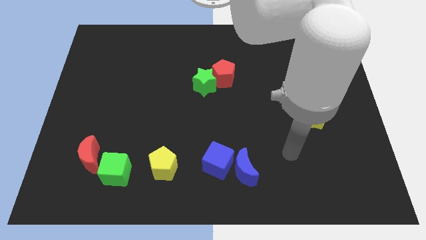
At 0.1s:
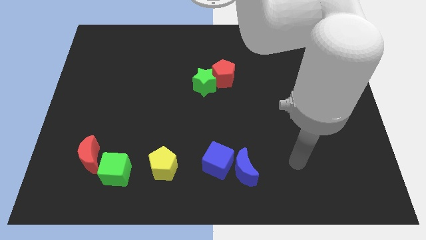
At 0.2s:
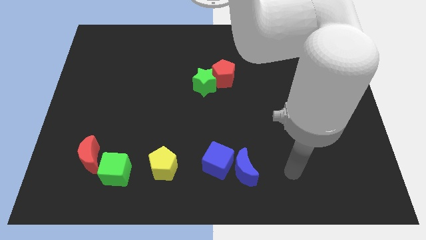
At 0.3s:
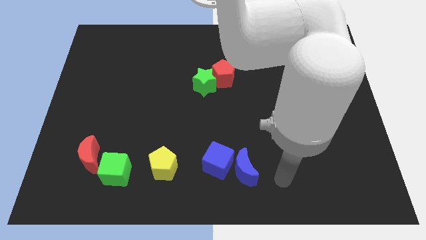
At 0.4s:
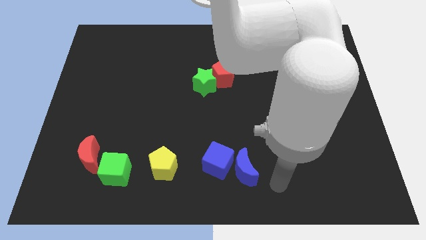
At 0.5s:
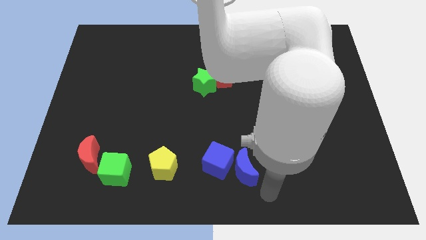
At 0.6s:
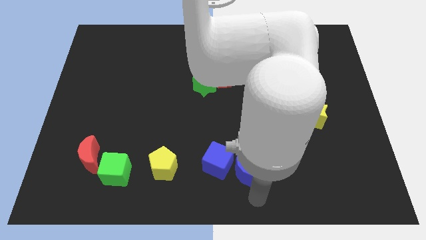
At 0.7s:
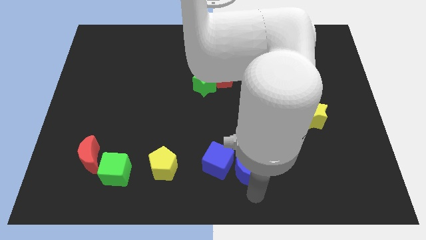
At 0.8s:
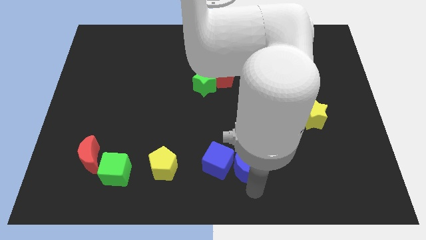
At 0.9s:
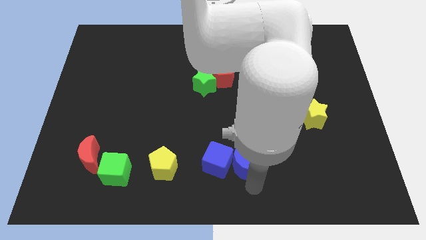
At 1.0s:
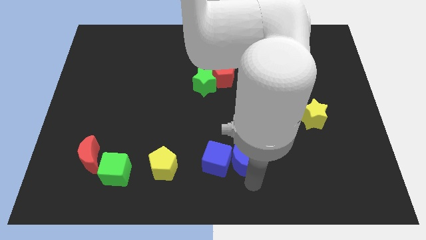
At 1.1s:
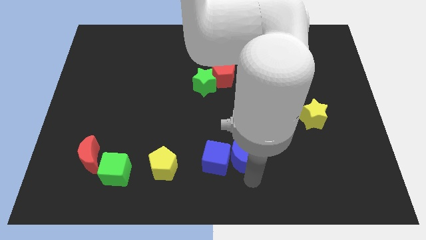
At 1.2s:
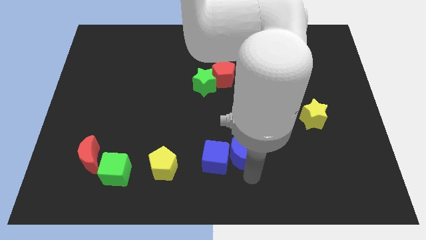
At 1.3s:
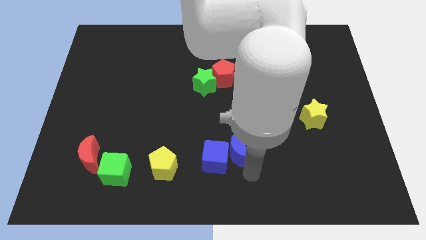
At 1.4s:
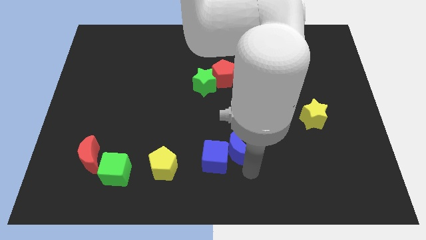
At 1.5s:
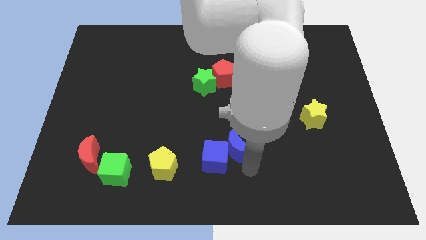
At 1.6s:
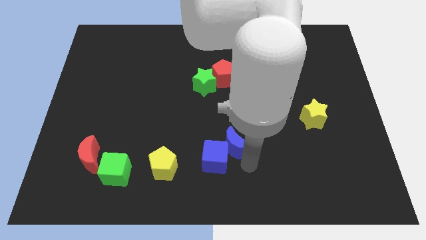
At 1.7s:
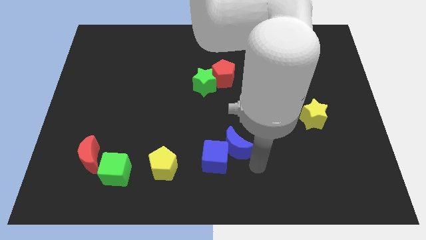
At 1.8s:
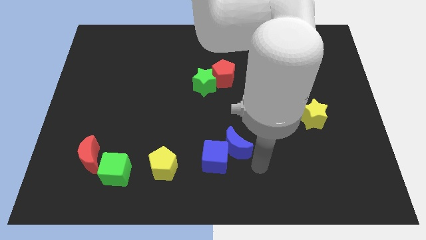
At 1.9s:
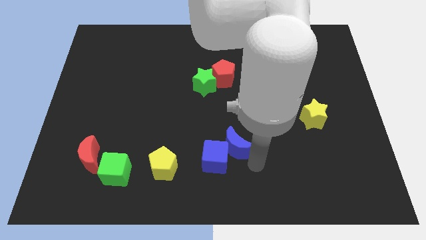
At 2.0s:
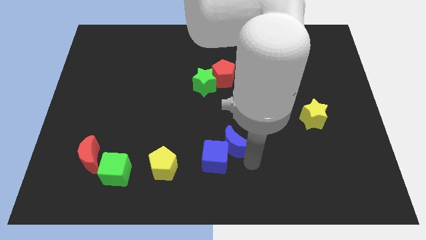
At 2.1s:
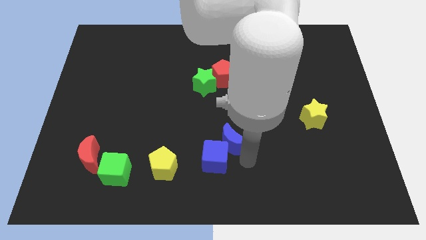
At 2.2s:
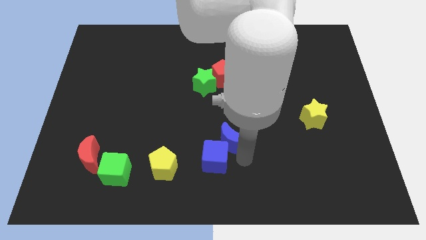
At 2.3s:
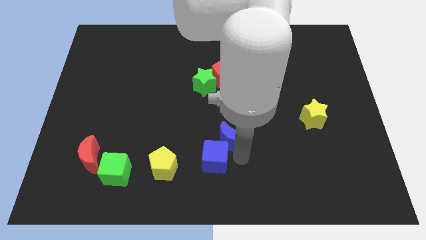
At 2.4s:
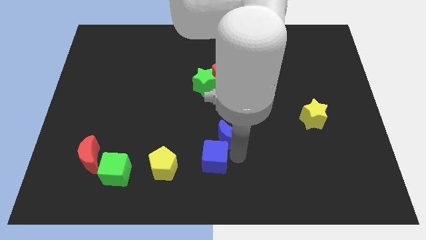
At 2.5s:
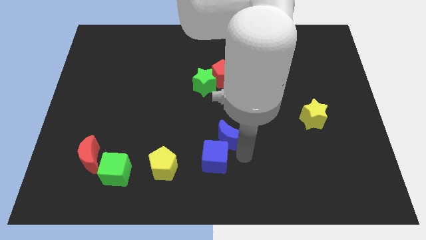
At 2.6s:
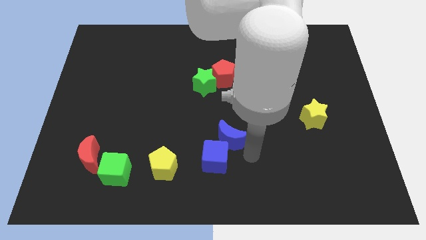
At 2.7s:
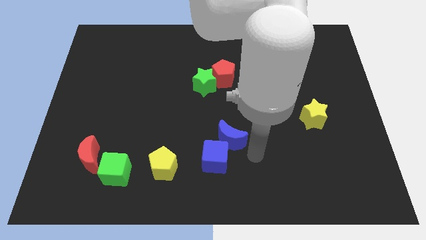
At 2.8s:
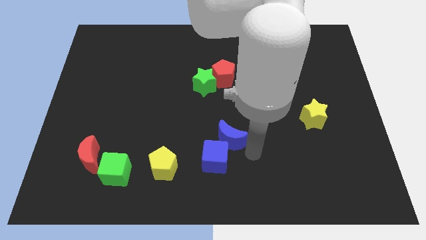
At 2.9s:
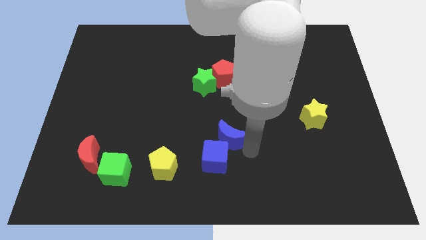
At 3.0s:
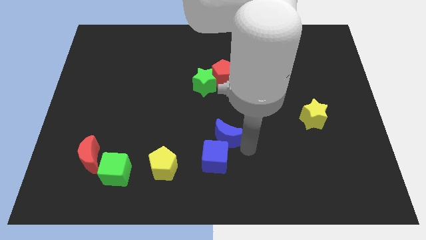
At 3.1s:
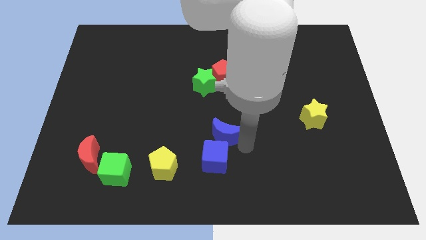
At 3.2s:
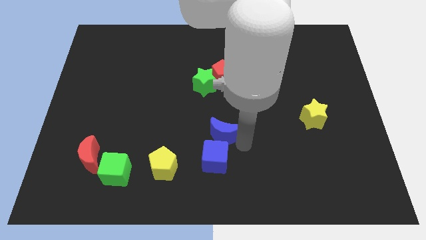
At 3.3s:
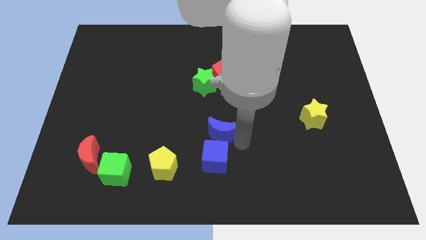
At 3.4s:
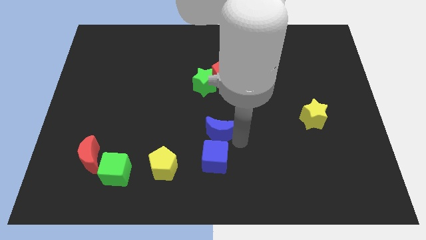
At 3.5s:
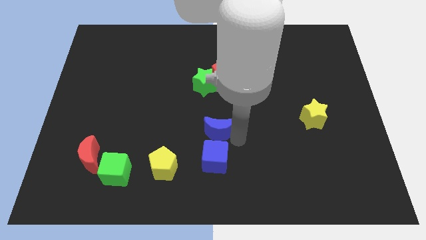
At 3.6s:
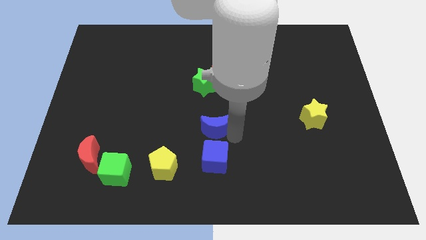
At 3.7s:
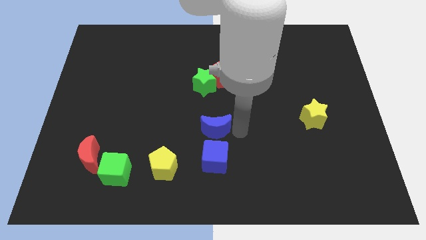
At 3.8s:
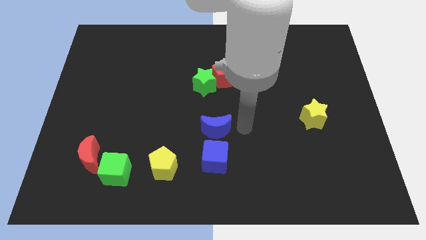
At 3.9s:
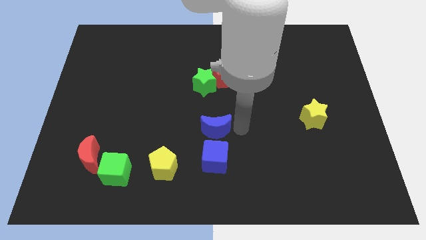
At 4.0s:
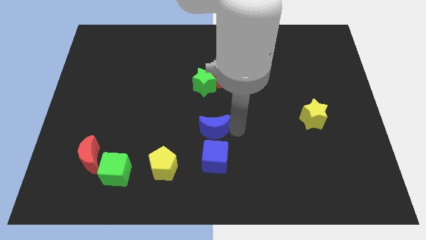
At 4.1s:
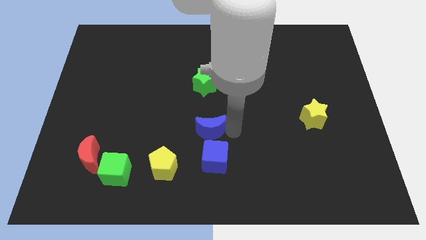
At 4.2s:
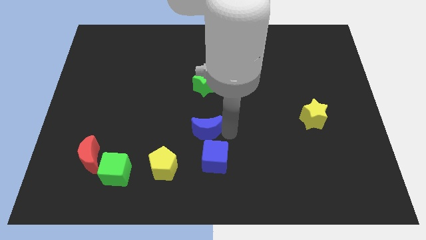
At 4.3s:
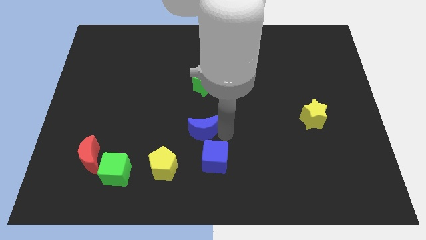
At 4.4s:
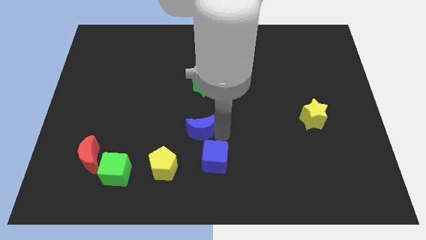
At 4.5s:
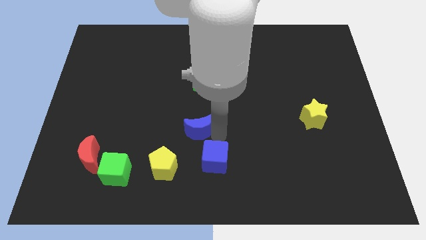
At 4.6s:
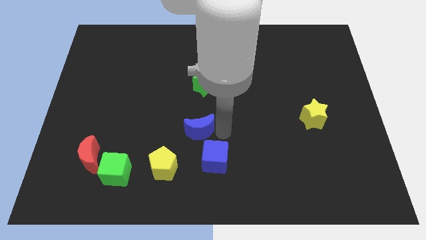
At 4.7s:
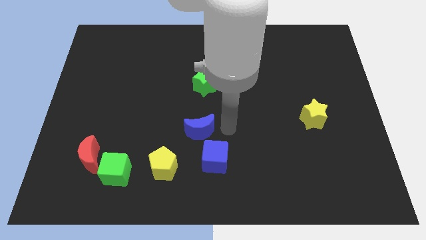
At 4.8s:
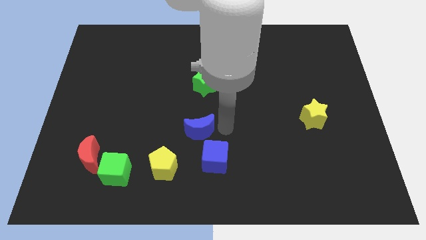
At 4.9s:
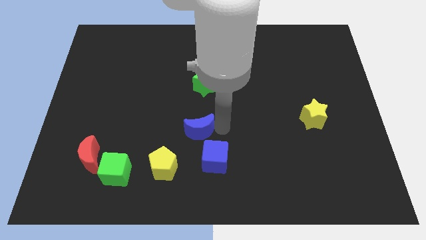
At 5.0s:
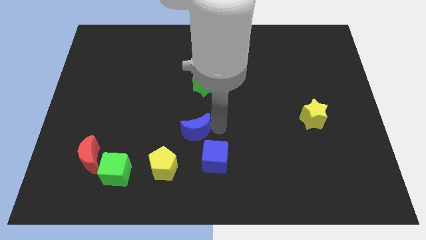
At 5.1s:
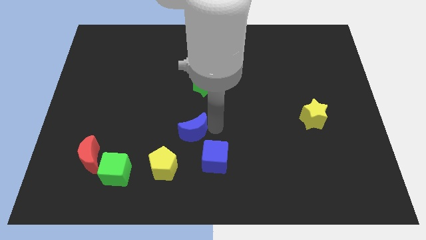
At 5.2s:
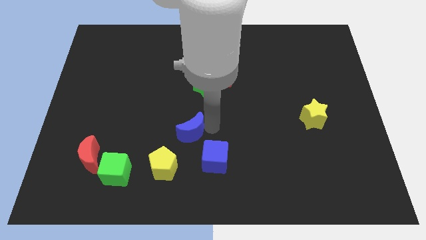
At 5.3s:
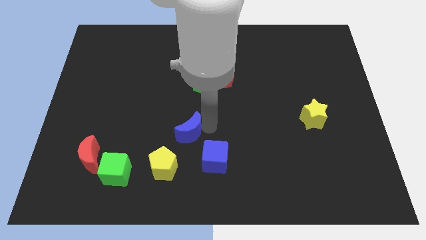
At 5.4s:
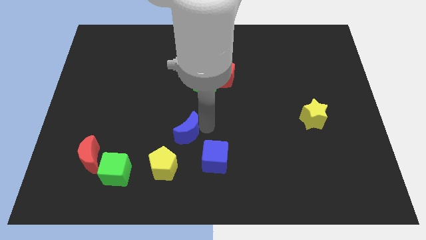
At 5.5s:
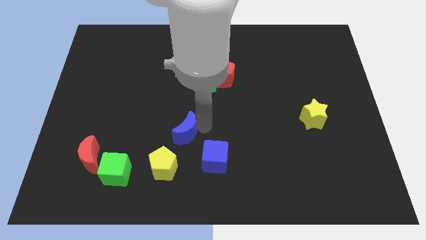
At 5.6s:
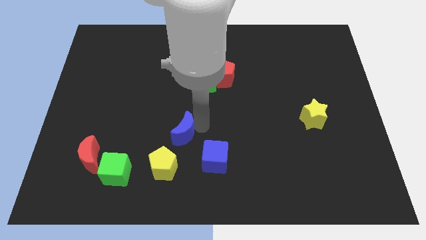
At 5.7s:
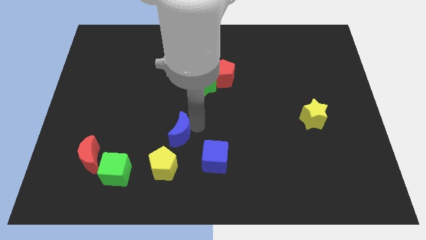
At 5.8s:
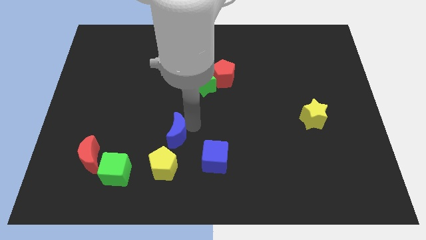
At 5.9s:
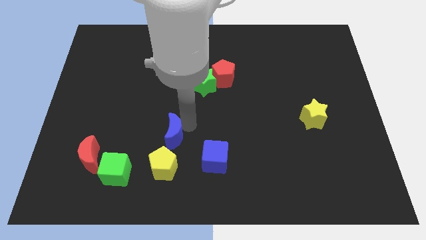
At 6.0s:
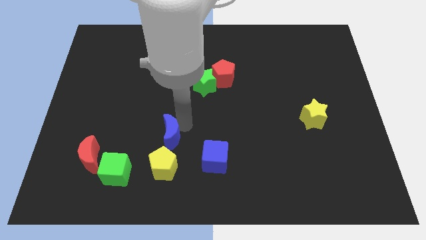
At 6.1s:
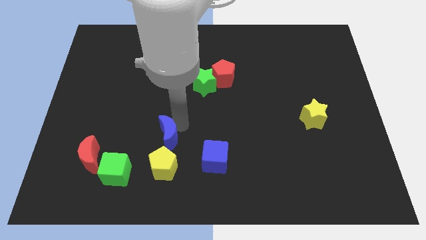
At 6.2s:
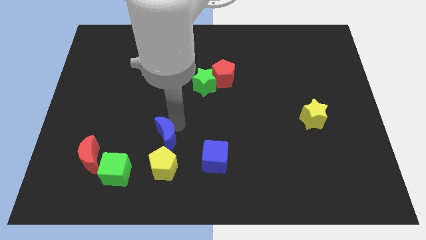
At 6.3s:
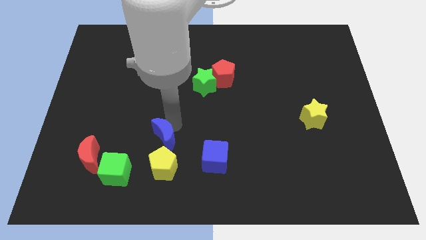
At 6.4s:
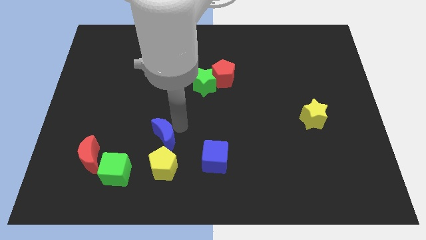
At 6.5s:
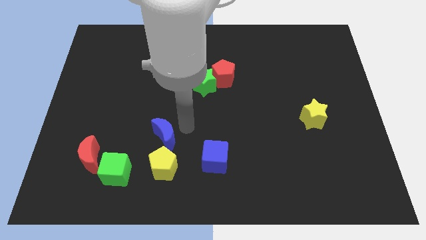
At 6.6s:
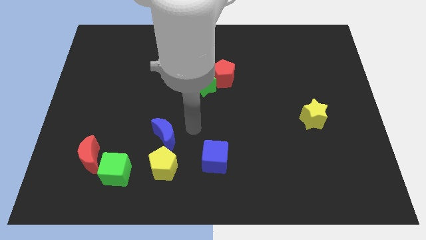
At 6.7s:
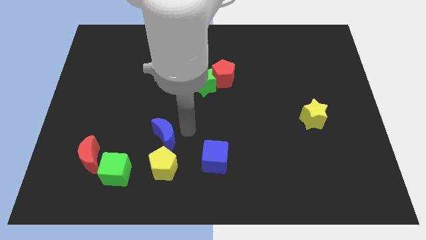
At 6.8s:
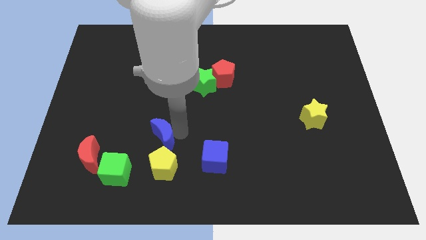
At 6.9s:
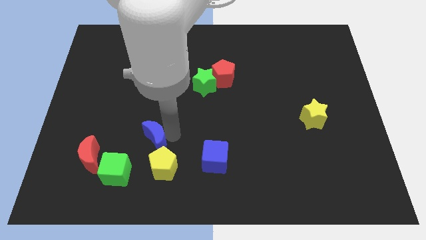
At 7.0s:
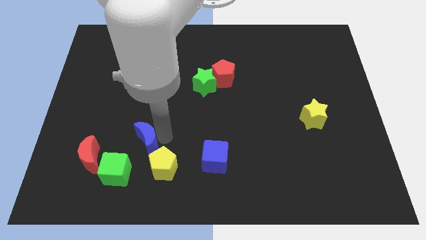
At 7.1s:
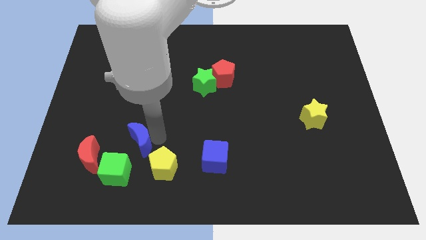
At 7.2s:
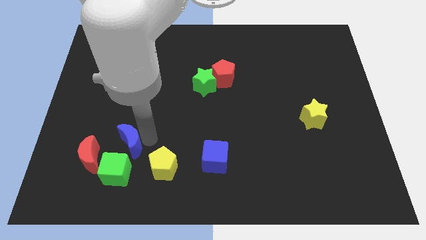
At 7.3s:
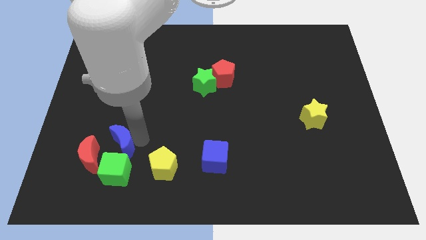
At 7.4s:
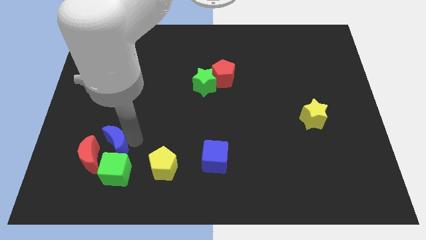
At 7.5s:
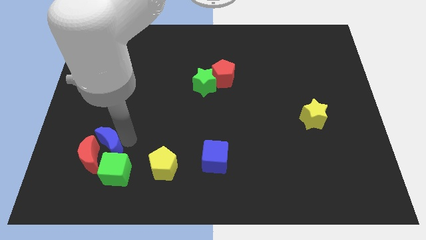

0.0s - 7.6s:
push the blue moon close to the red moon
